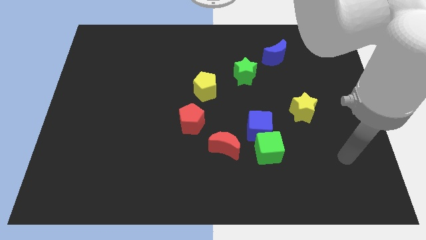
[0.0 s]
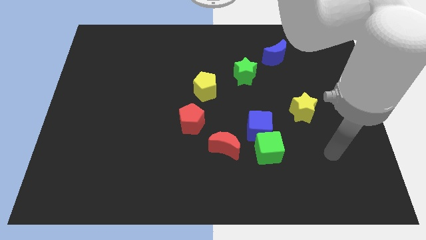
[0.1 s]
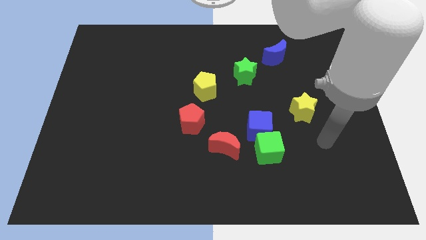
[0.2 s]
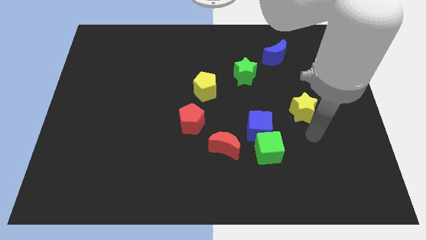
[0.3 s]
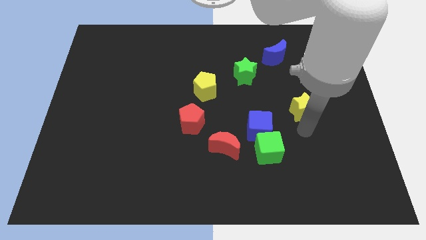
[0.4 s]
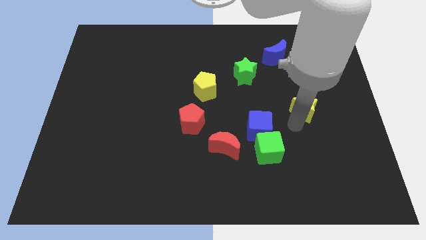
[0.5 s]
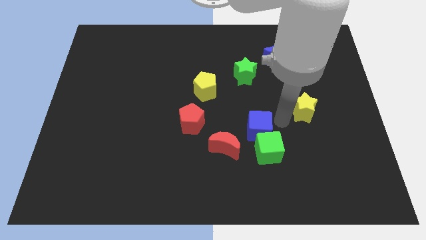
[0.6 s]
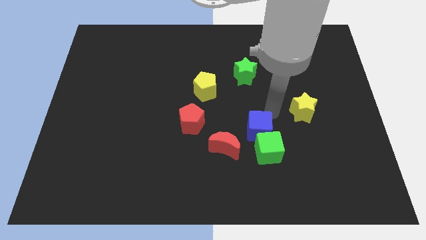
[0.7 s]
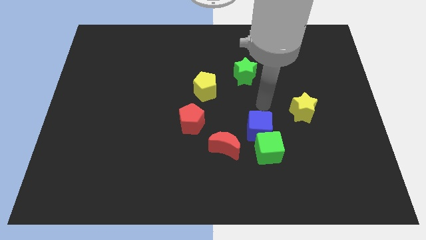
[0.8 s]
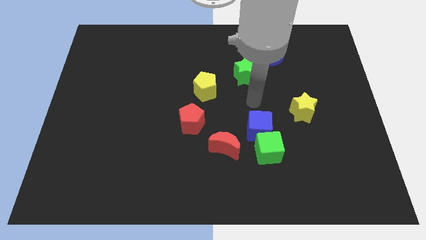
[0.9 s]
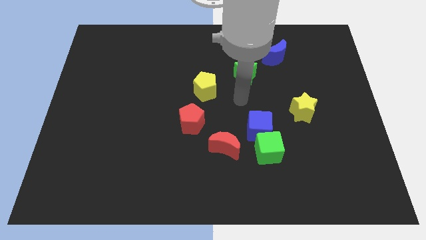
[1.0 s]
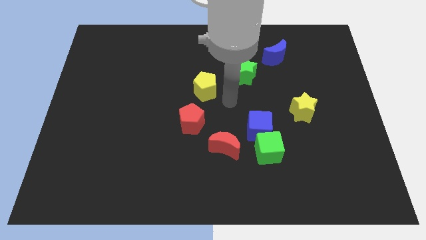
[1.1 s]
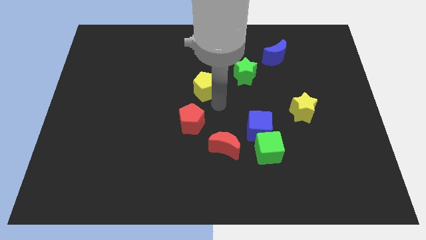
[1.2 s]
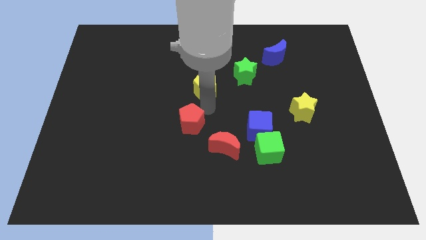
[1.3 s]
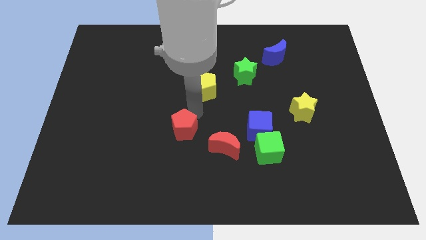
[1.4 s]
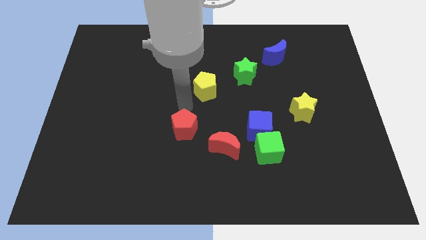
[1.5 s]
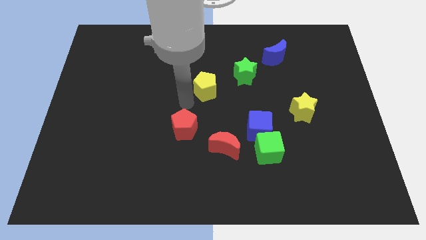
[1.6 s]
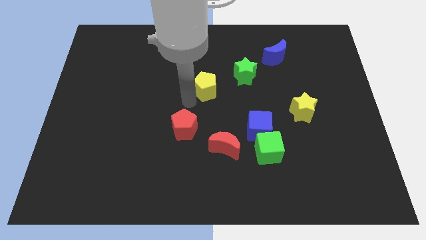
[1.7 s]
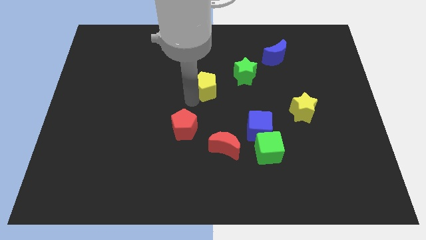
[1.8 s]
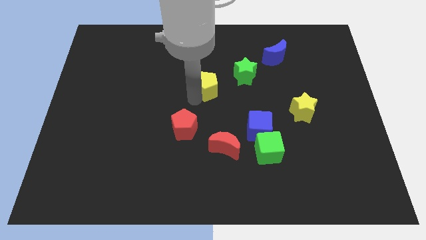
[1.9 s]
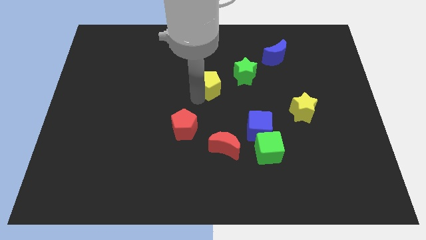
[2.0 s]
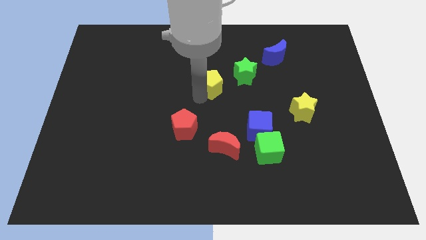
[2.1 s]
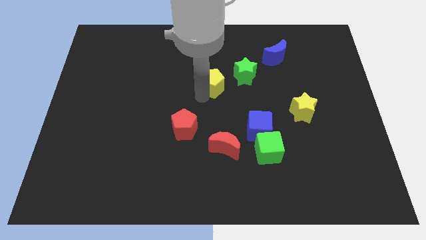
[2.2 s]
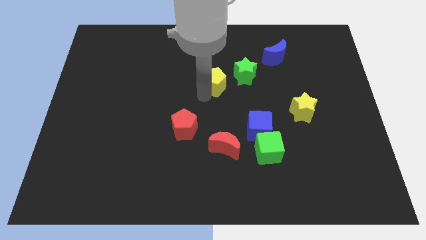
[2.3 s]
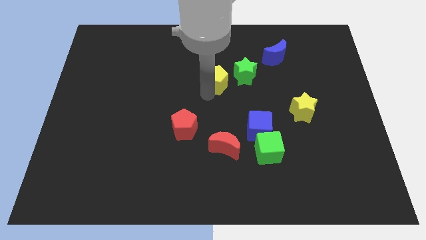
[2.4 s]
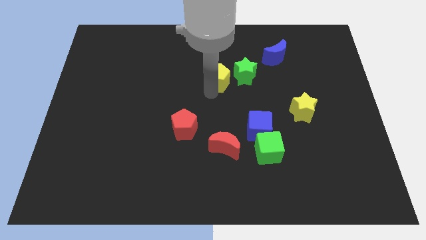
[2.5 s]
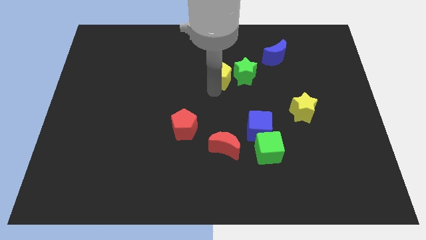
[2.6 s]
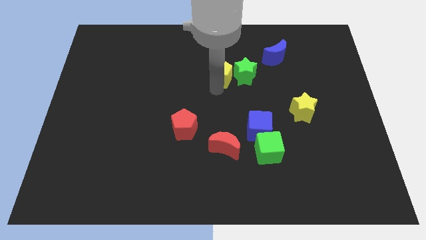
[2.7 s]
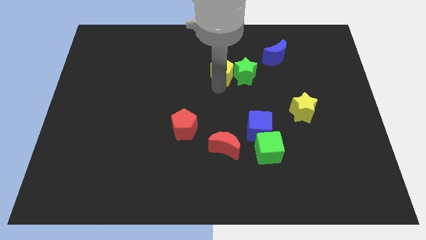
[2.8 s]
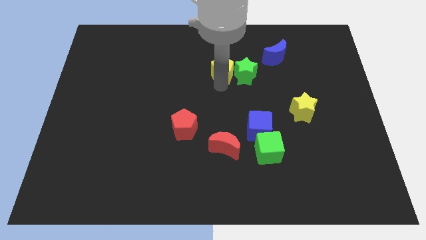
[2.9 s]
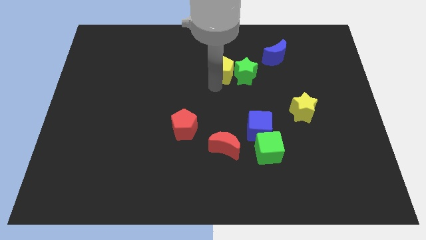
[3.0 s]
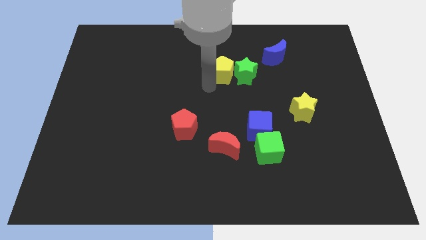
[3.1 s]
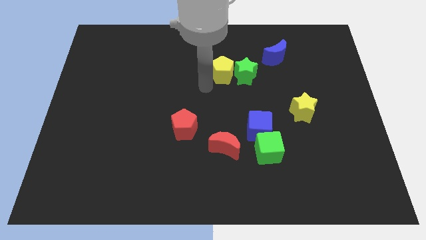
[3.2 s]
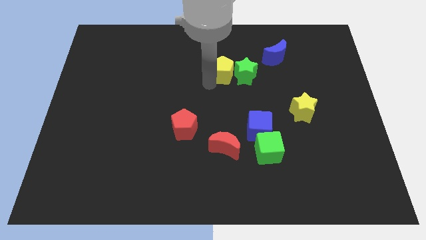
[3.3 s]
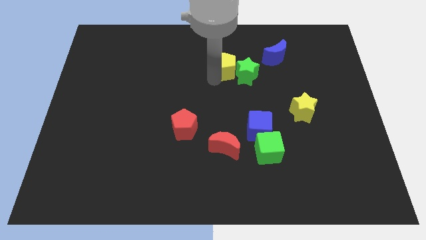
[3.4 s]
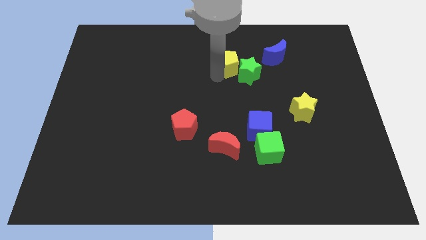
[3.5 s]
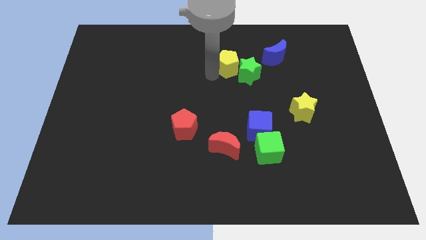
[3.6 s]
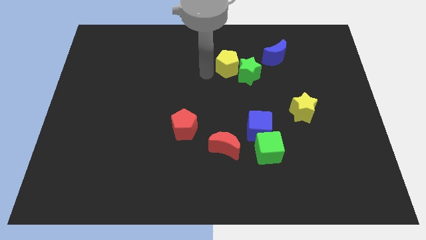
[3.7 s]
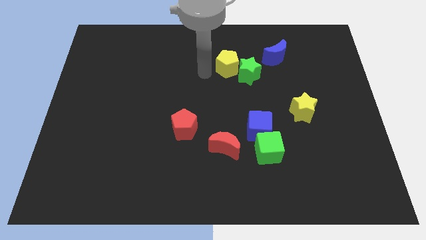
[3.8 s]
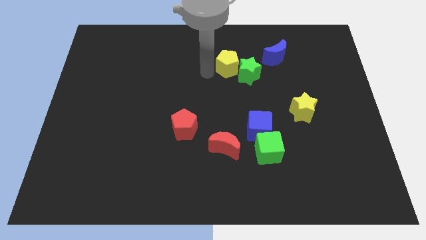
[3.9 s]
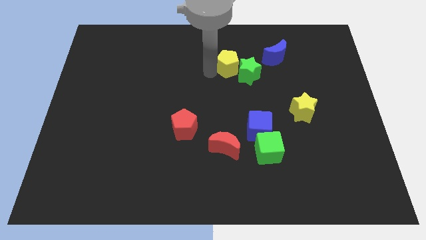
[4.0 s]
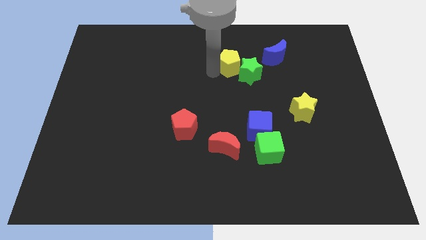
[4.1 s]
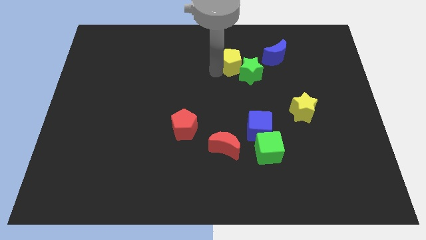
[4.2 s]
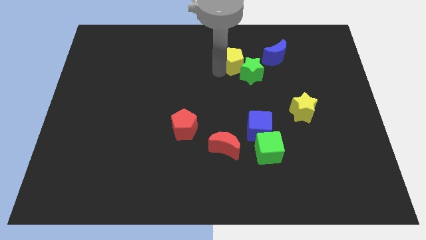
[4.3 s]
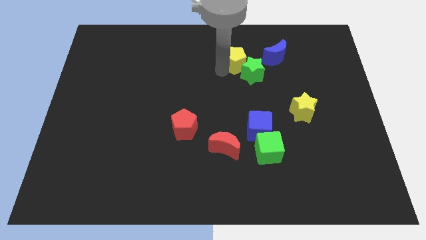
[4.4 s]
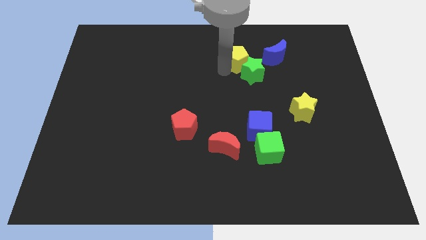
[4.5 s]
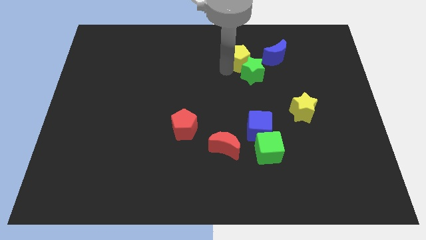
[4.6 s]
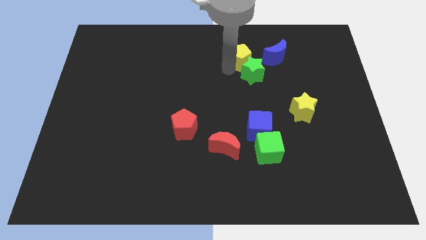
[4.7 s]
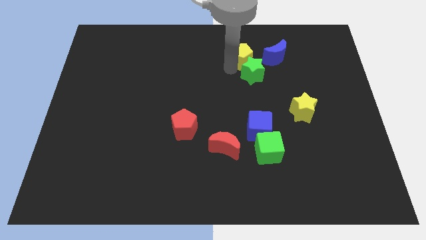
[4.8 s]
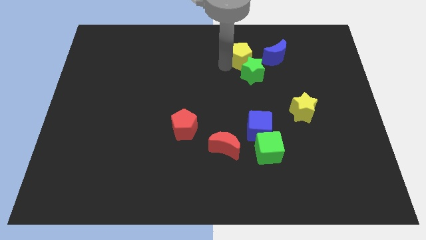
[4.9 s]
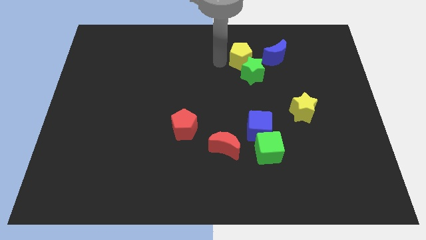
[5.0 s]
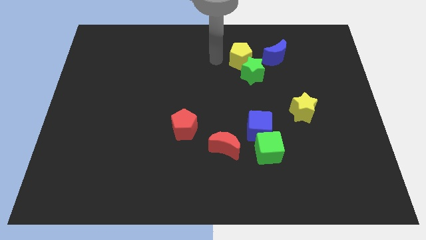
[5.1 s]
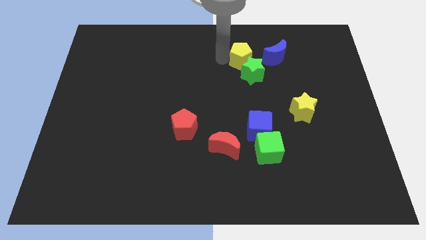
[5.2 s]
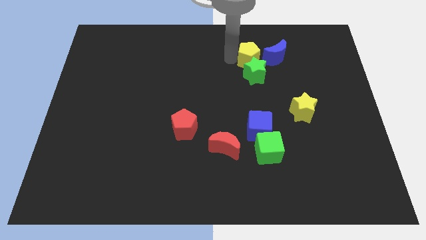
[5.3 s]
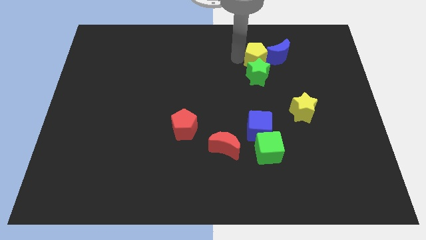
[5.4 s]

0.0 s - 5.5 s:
move the yellow pentagon towards the blue moon

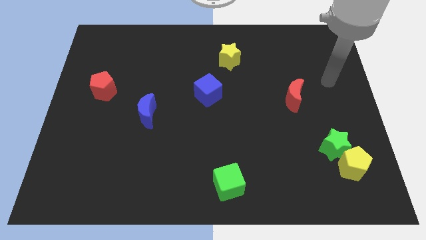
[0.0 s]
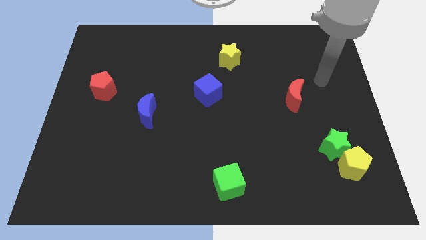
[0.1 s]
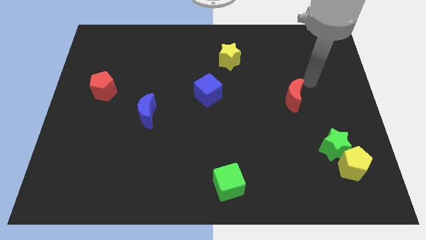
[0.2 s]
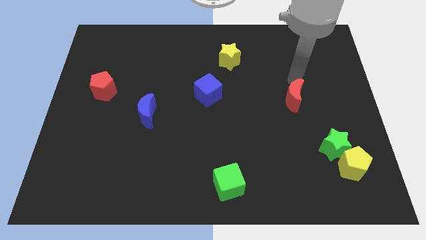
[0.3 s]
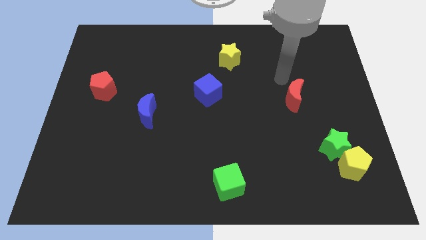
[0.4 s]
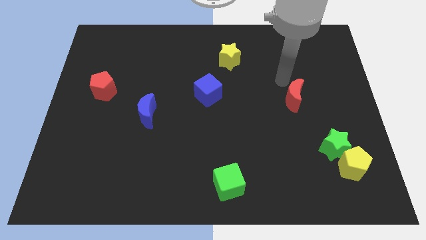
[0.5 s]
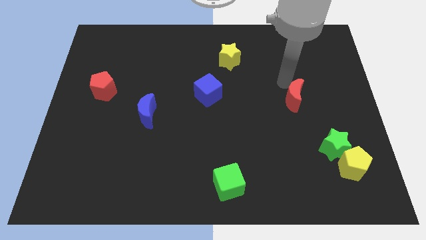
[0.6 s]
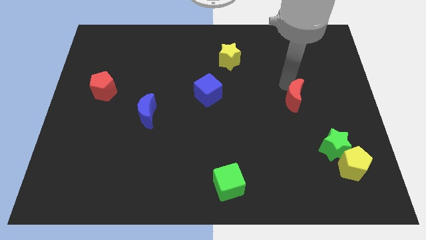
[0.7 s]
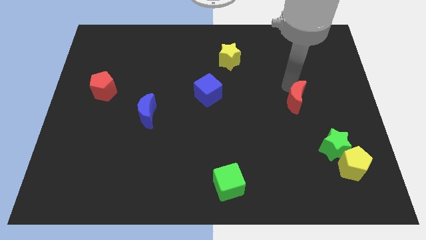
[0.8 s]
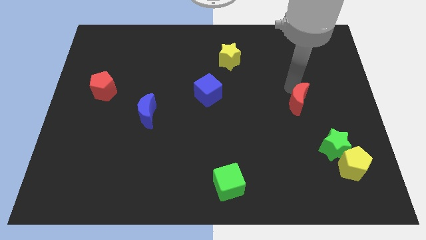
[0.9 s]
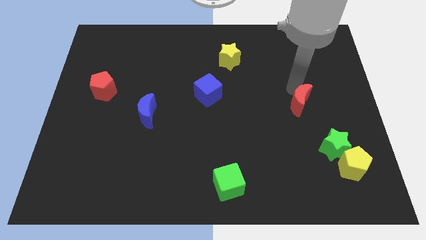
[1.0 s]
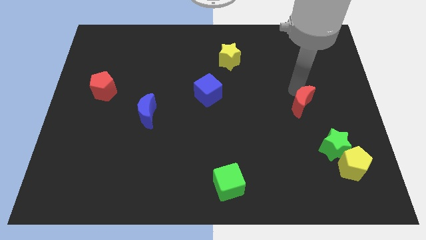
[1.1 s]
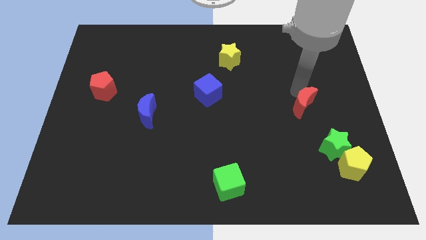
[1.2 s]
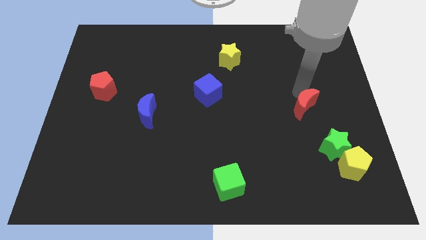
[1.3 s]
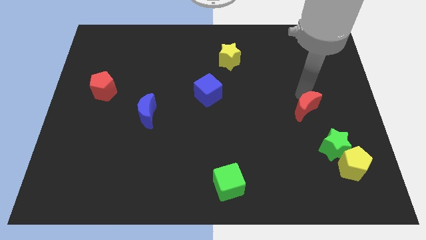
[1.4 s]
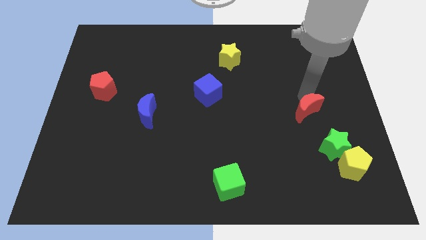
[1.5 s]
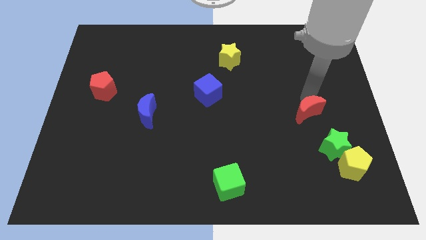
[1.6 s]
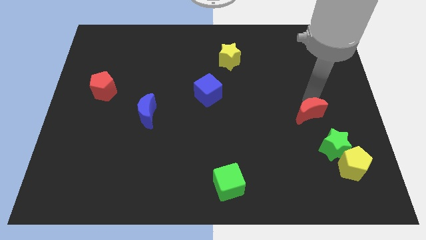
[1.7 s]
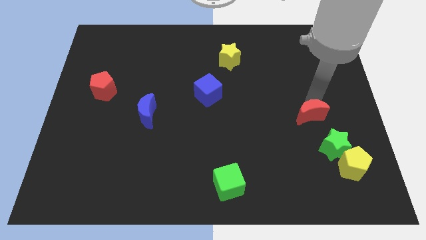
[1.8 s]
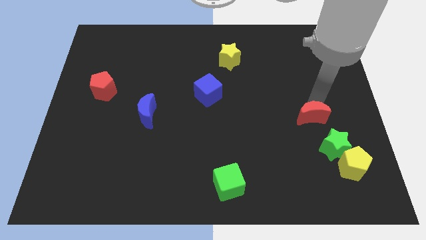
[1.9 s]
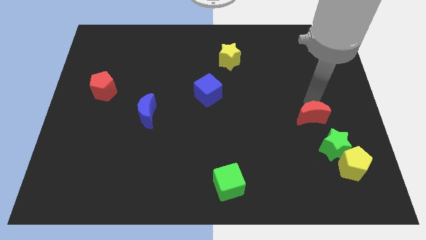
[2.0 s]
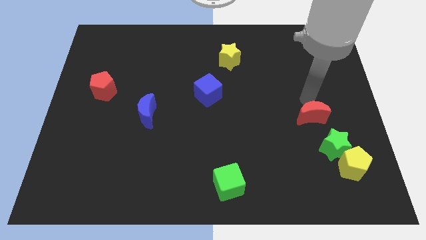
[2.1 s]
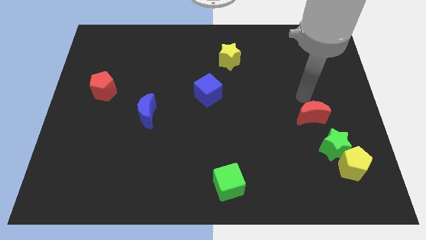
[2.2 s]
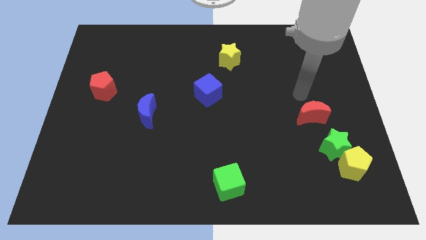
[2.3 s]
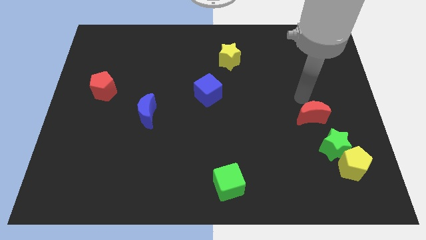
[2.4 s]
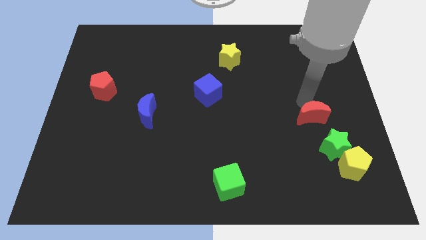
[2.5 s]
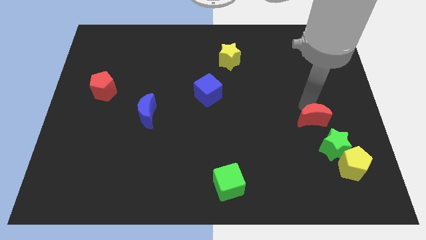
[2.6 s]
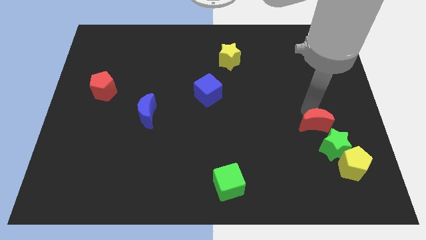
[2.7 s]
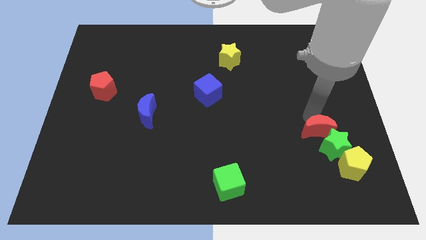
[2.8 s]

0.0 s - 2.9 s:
put the red moon towards the green star
